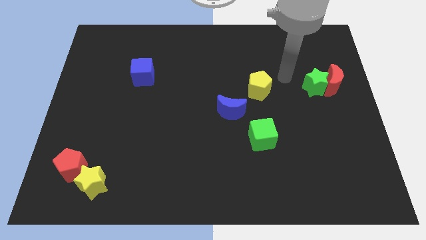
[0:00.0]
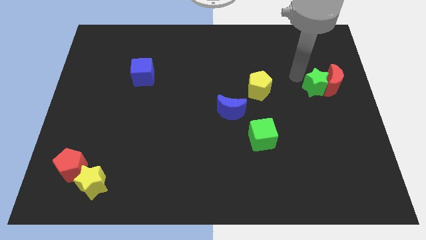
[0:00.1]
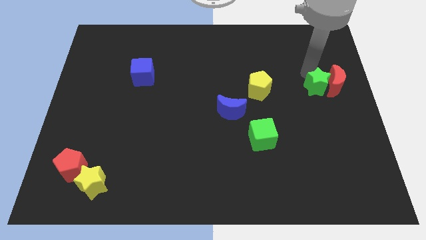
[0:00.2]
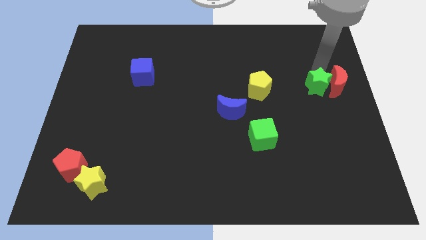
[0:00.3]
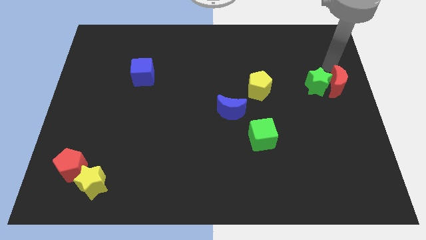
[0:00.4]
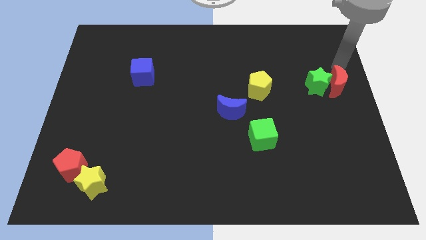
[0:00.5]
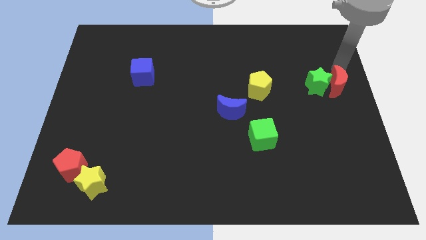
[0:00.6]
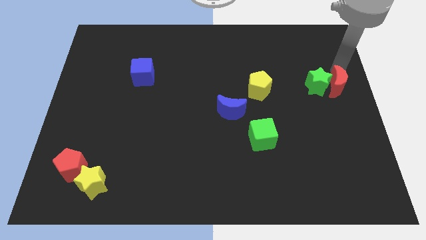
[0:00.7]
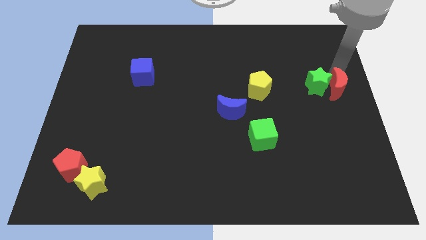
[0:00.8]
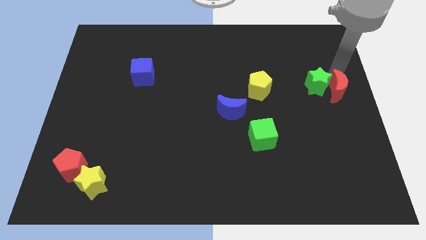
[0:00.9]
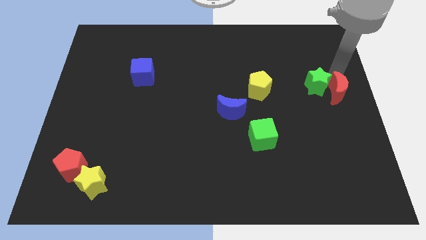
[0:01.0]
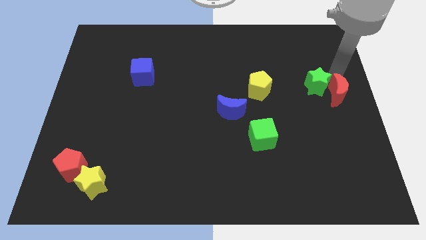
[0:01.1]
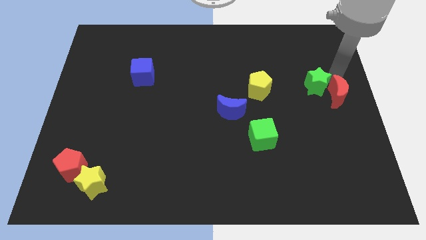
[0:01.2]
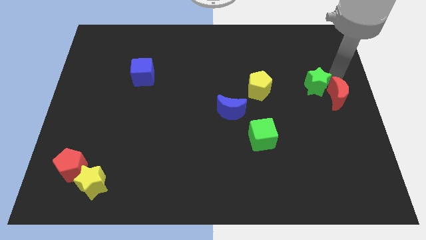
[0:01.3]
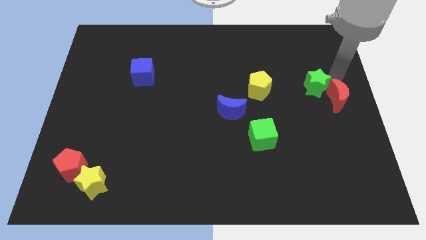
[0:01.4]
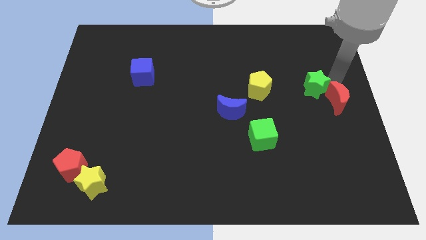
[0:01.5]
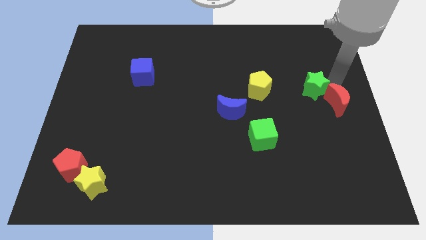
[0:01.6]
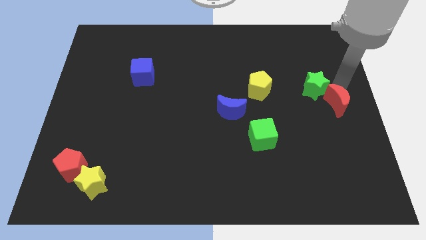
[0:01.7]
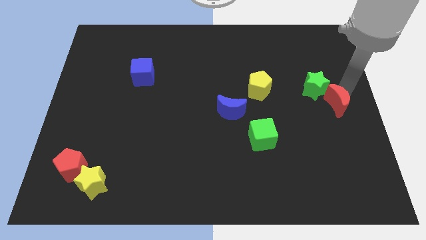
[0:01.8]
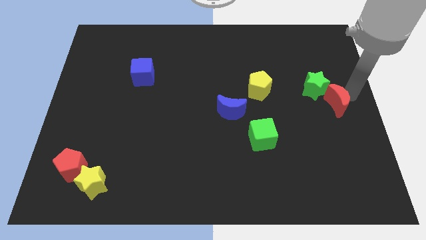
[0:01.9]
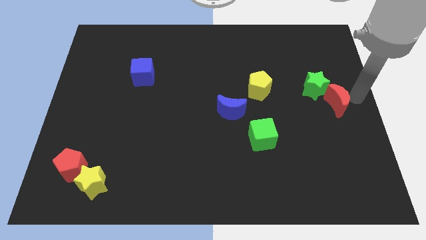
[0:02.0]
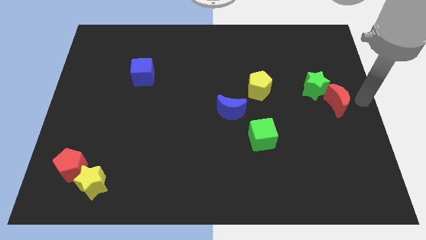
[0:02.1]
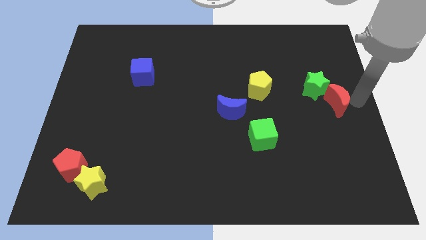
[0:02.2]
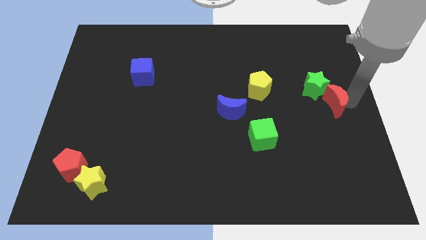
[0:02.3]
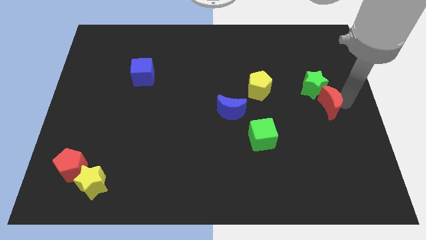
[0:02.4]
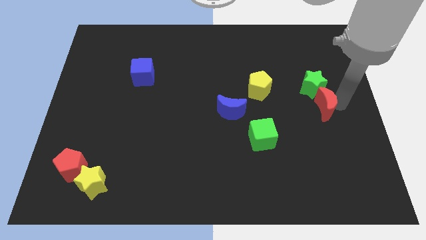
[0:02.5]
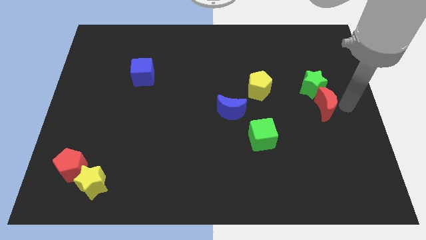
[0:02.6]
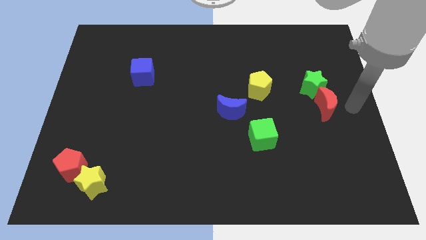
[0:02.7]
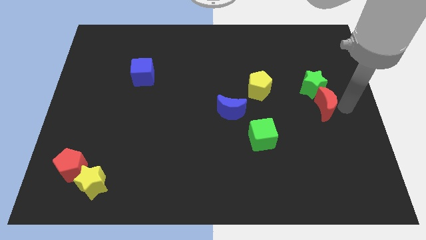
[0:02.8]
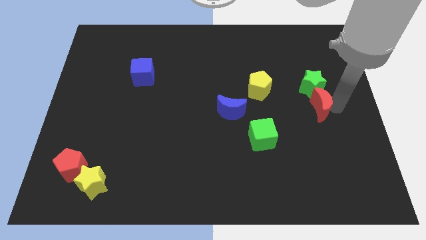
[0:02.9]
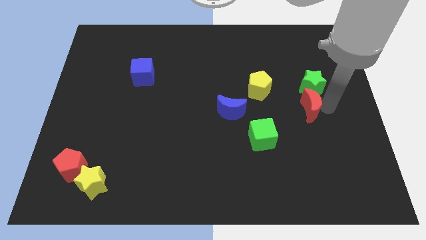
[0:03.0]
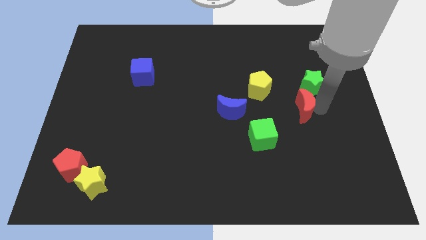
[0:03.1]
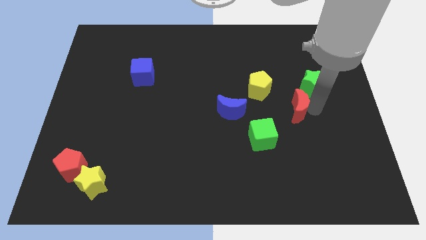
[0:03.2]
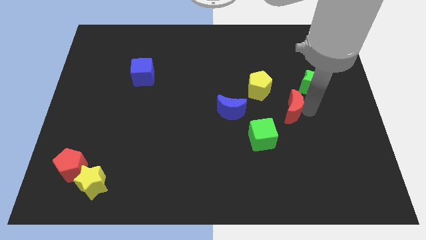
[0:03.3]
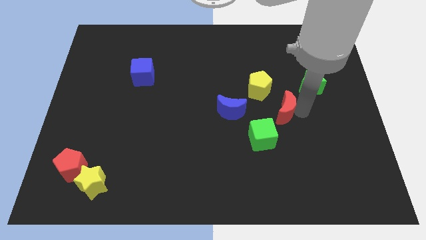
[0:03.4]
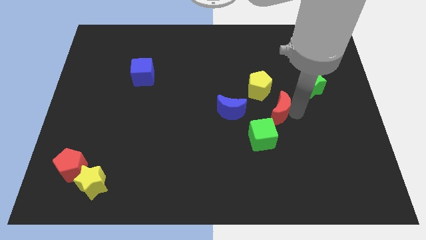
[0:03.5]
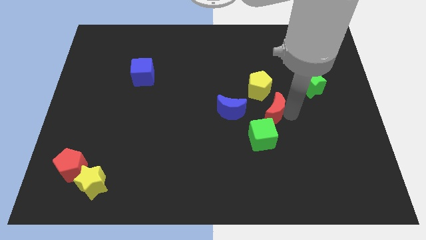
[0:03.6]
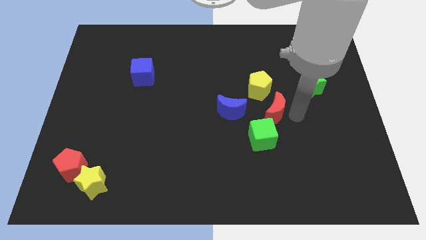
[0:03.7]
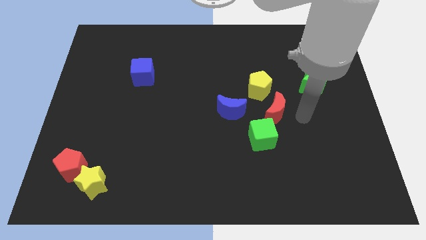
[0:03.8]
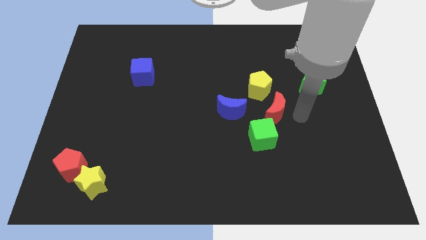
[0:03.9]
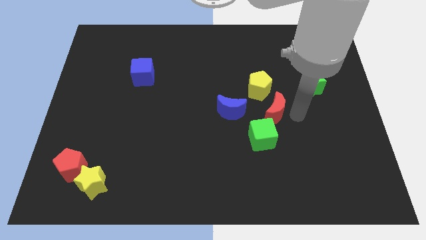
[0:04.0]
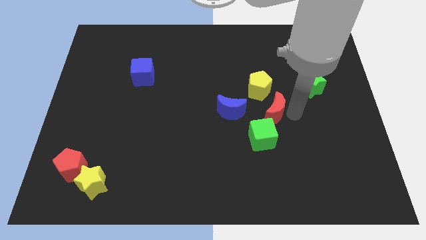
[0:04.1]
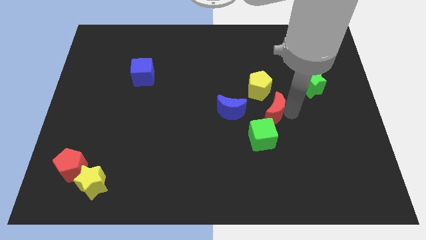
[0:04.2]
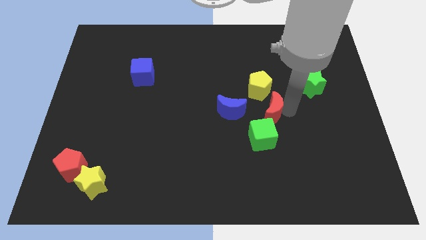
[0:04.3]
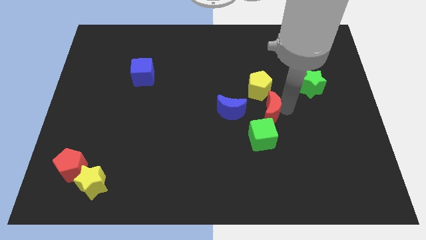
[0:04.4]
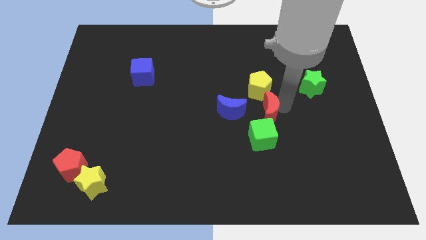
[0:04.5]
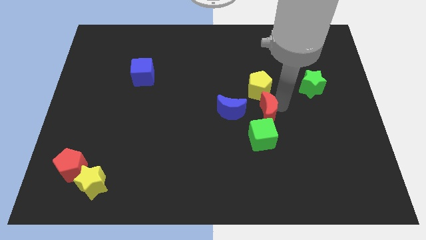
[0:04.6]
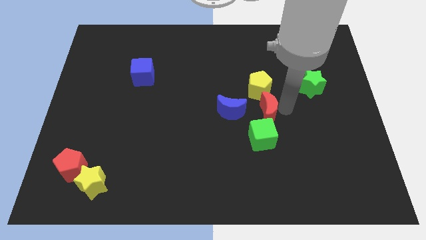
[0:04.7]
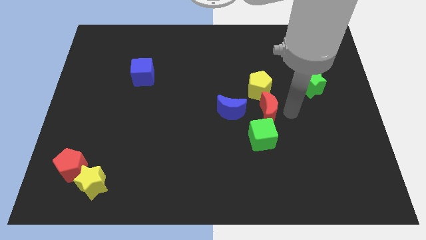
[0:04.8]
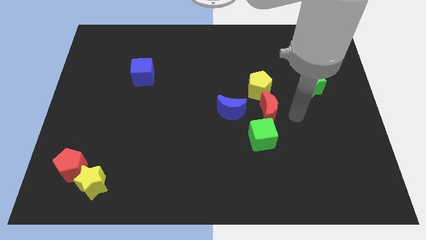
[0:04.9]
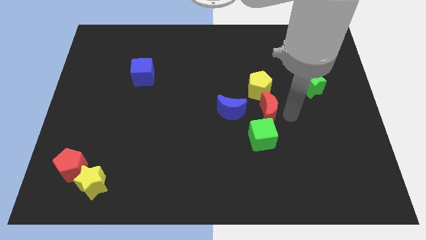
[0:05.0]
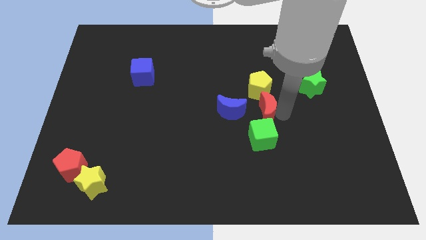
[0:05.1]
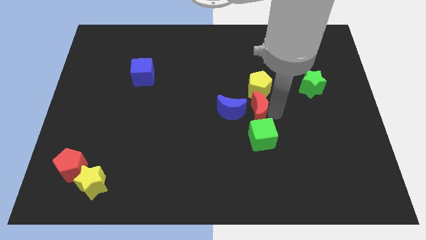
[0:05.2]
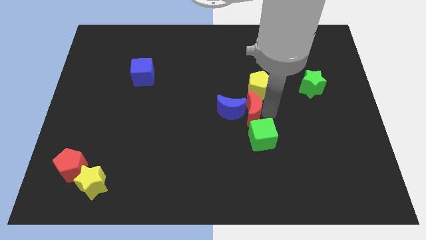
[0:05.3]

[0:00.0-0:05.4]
put the red moon towards the blue moon

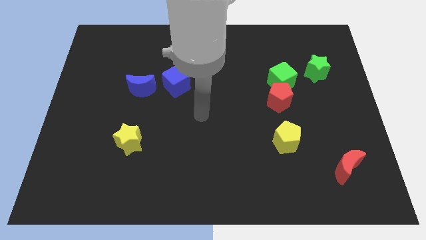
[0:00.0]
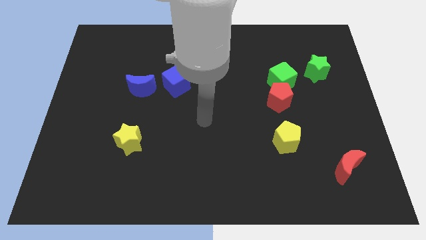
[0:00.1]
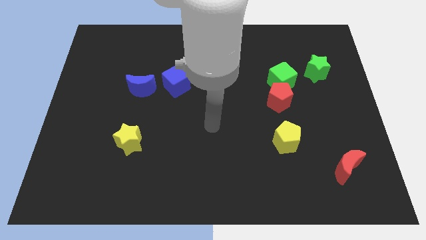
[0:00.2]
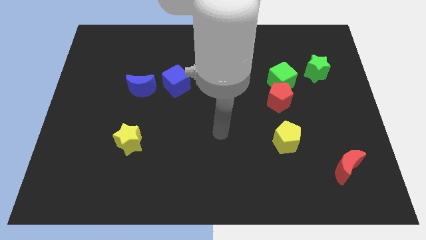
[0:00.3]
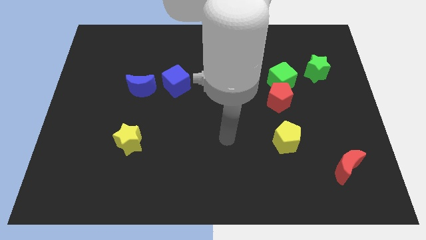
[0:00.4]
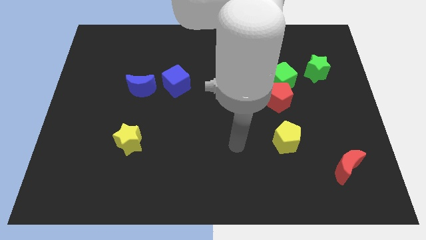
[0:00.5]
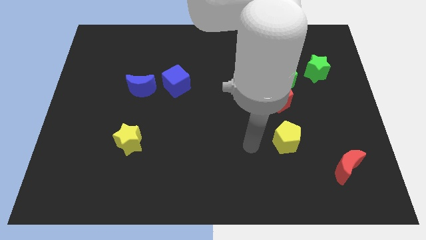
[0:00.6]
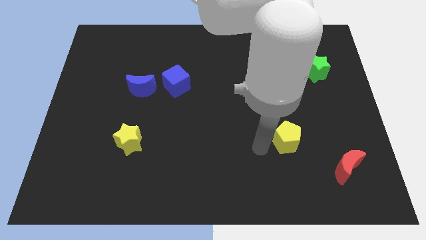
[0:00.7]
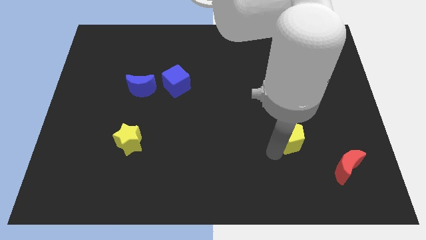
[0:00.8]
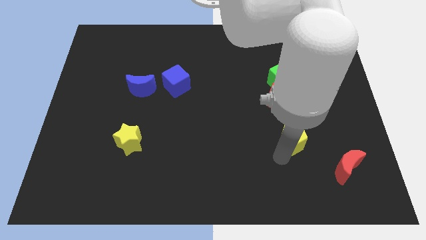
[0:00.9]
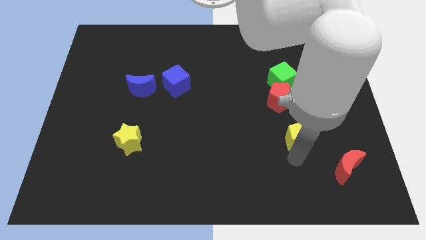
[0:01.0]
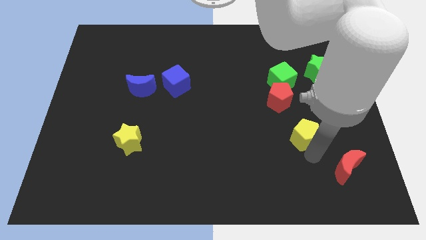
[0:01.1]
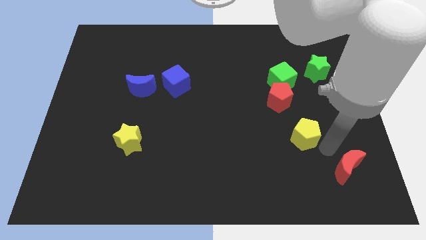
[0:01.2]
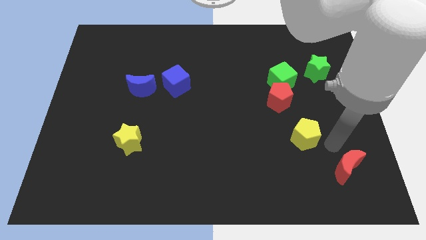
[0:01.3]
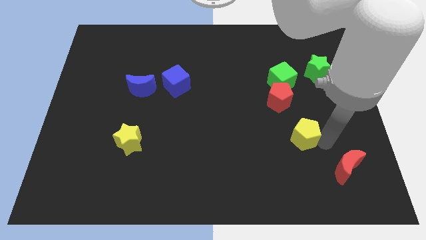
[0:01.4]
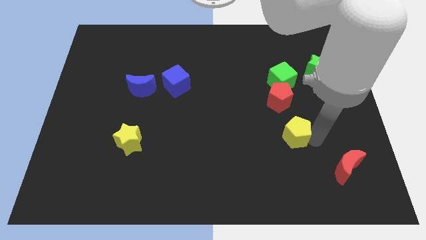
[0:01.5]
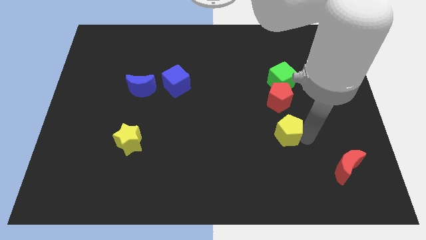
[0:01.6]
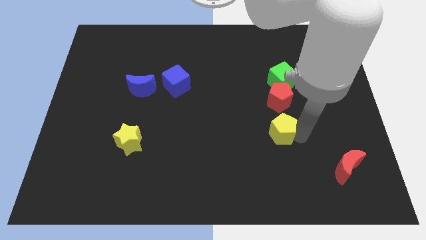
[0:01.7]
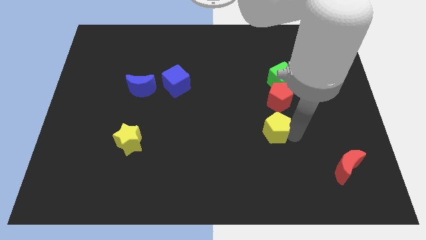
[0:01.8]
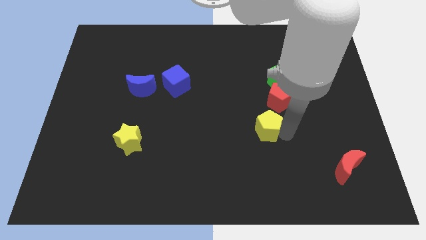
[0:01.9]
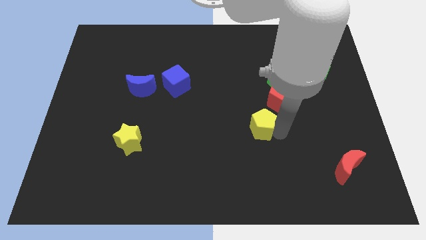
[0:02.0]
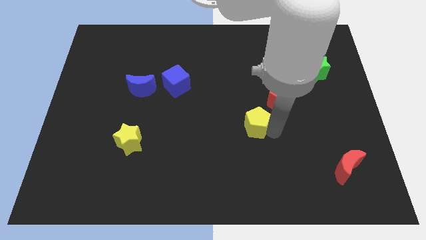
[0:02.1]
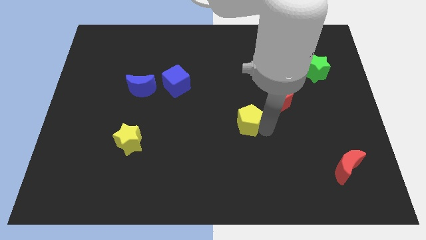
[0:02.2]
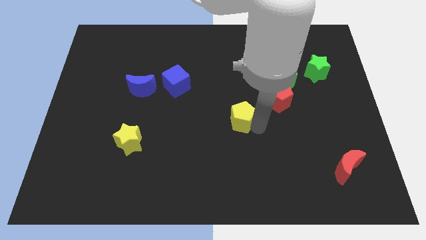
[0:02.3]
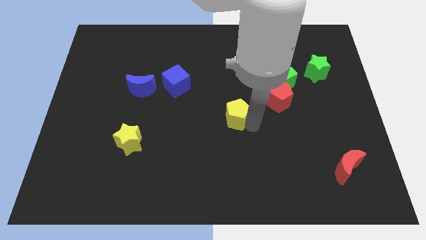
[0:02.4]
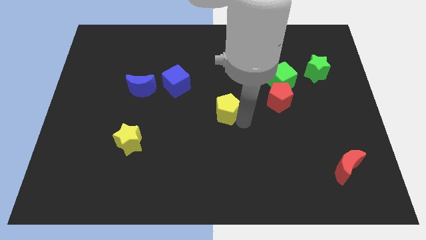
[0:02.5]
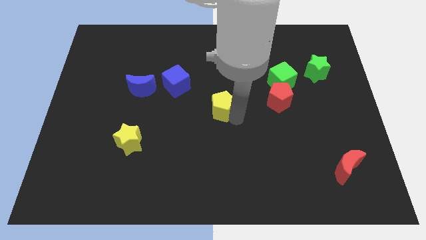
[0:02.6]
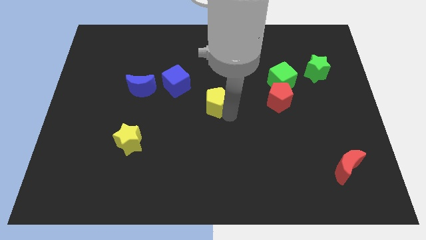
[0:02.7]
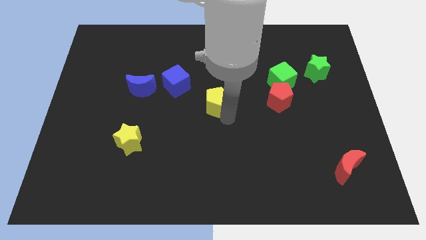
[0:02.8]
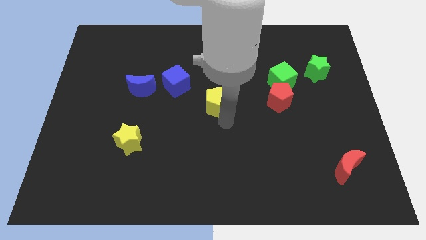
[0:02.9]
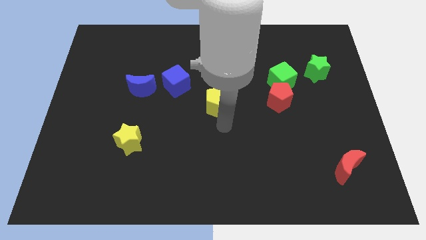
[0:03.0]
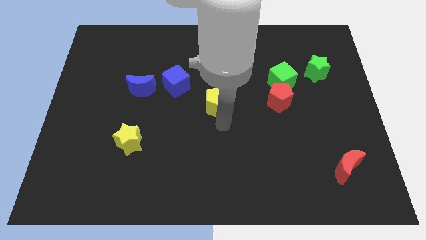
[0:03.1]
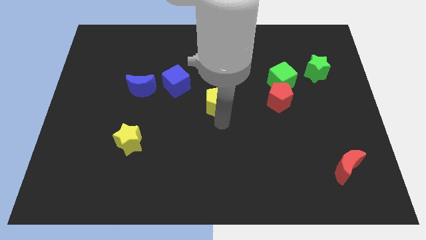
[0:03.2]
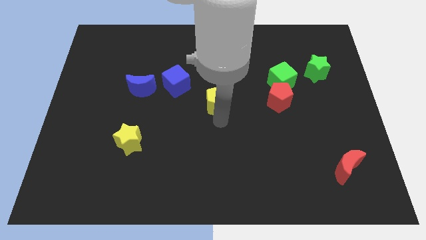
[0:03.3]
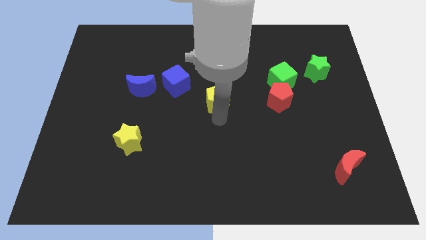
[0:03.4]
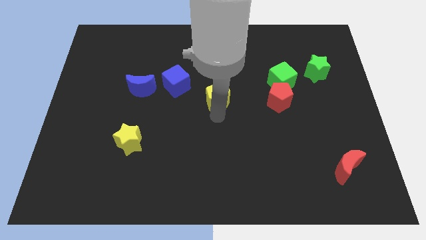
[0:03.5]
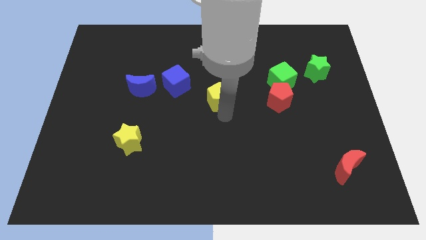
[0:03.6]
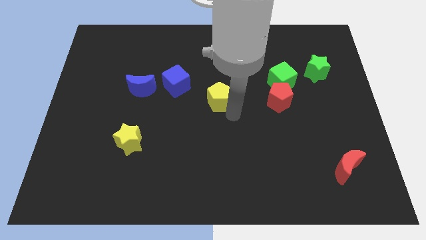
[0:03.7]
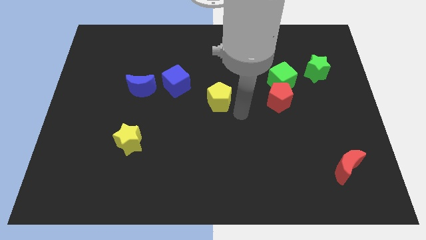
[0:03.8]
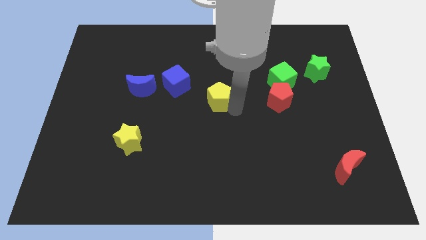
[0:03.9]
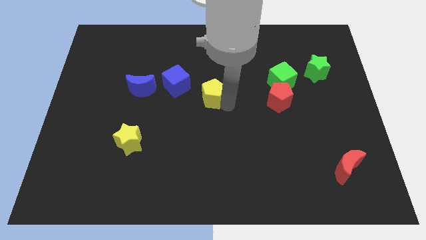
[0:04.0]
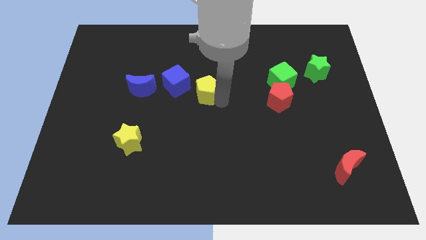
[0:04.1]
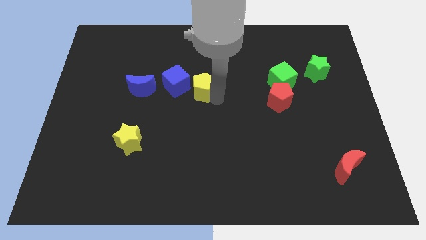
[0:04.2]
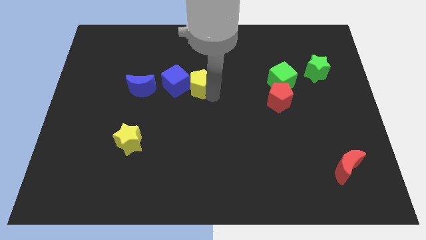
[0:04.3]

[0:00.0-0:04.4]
move the yellow pentagon close to the blue cube
